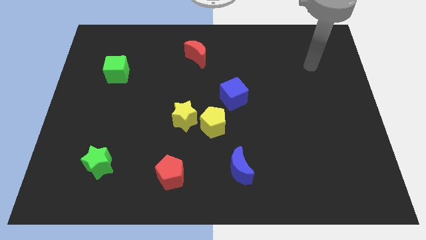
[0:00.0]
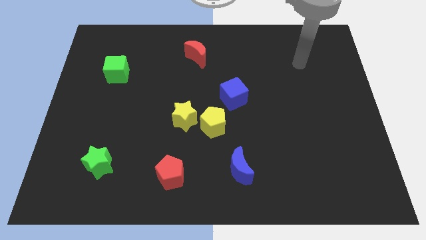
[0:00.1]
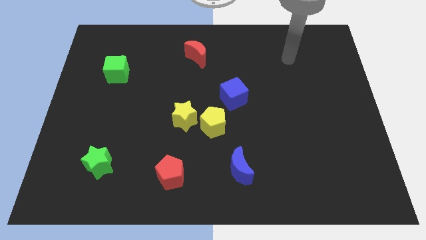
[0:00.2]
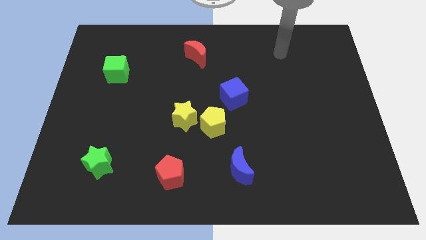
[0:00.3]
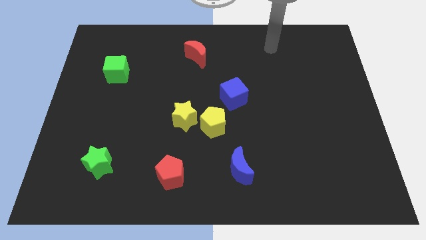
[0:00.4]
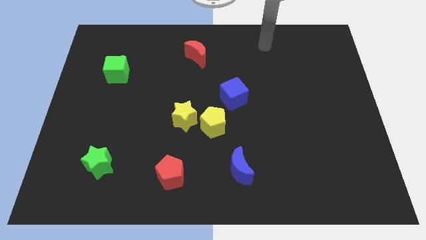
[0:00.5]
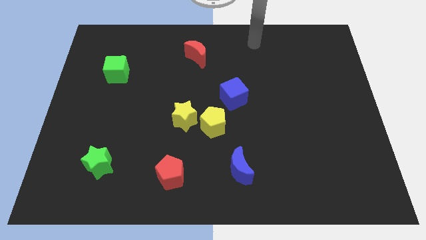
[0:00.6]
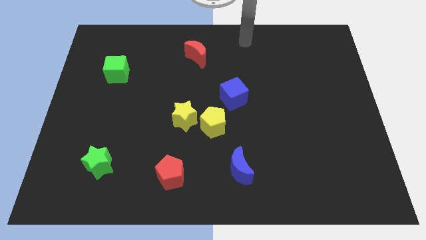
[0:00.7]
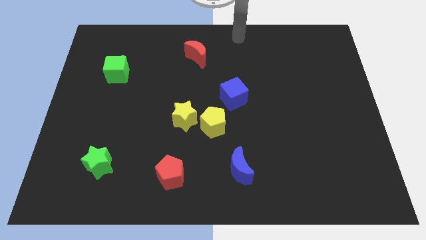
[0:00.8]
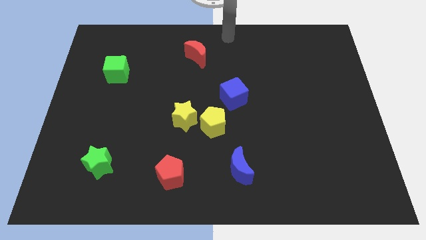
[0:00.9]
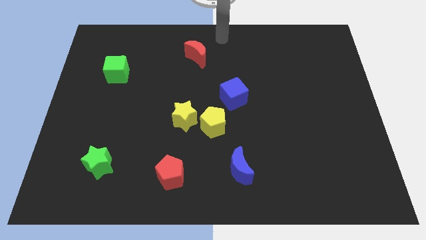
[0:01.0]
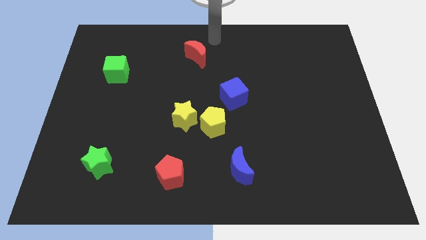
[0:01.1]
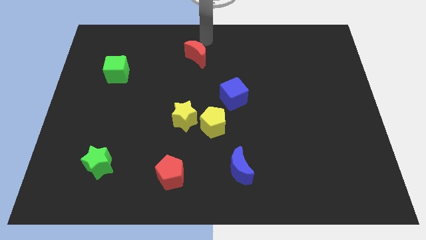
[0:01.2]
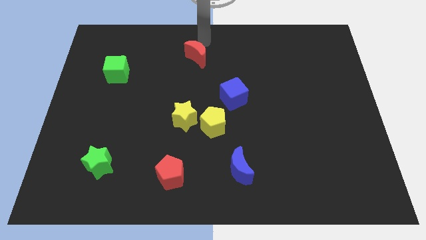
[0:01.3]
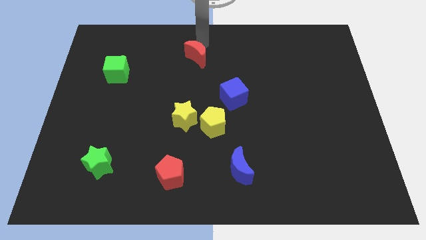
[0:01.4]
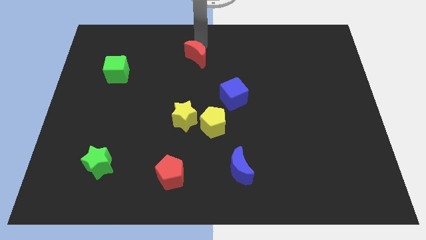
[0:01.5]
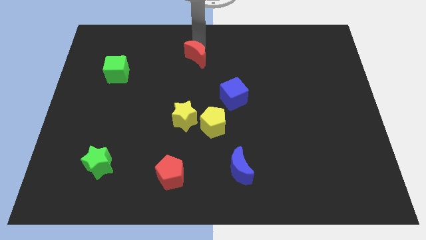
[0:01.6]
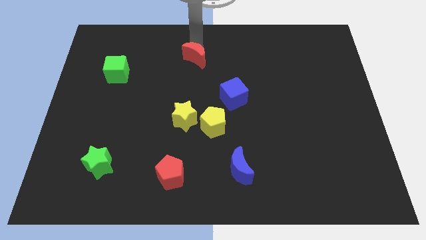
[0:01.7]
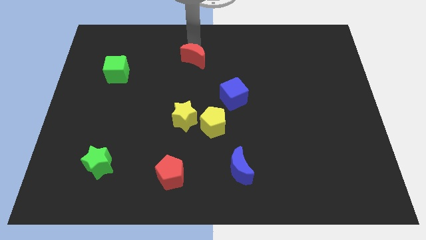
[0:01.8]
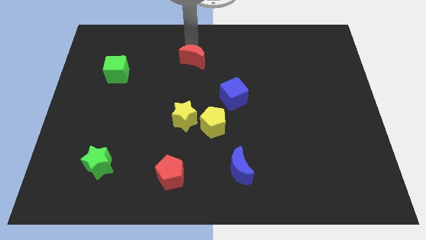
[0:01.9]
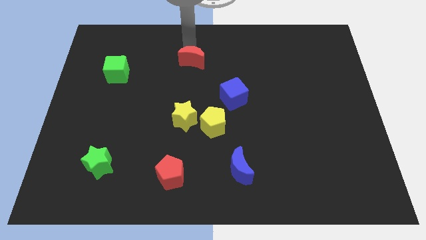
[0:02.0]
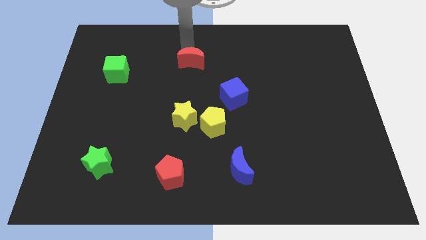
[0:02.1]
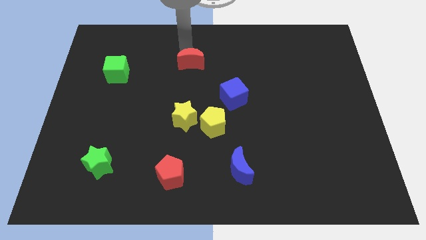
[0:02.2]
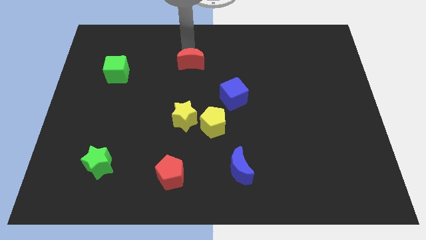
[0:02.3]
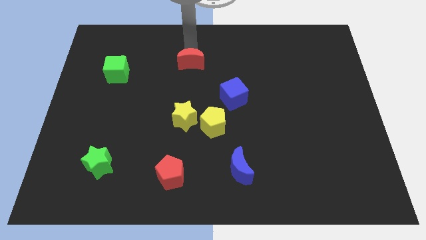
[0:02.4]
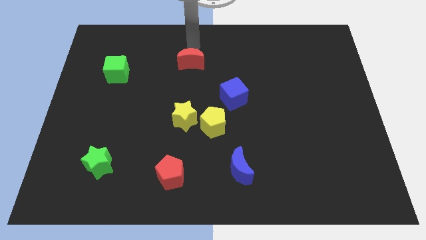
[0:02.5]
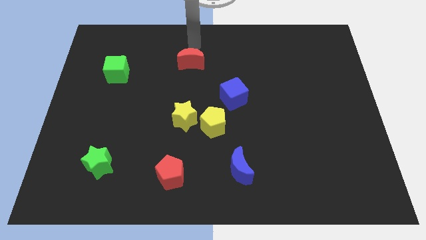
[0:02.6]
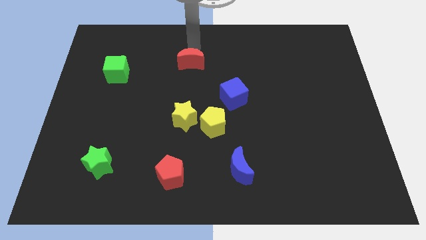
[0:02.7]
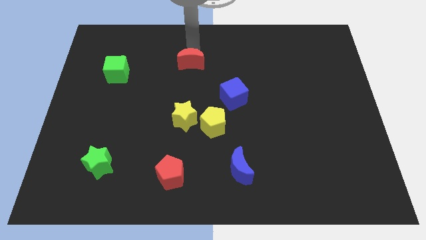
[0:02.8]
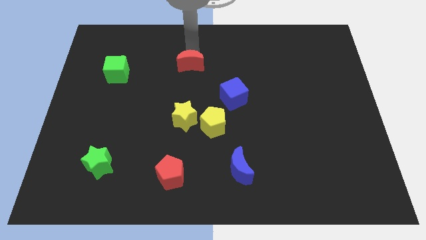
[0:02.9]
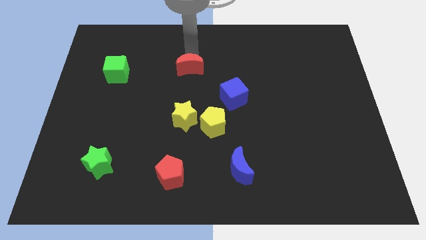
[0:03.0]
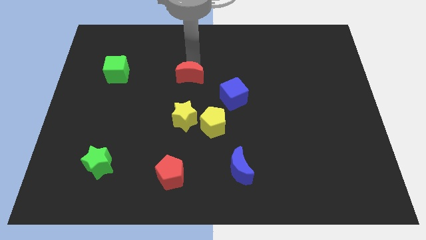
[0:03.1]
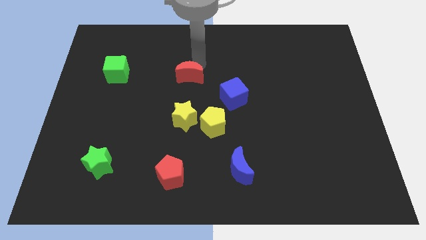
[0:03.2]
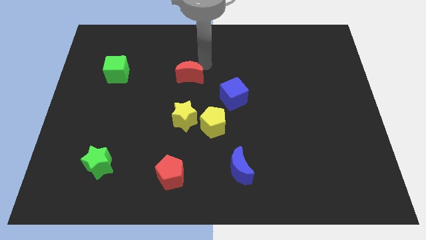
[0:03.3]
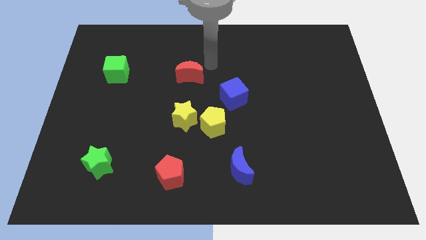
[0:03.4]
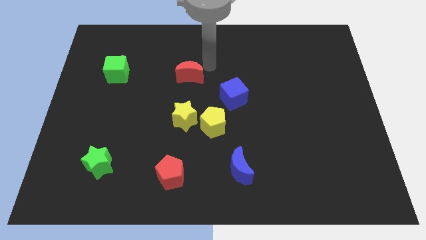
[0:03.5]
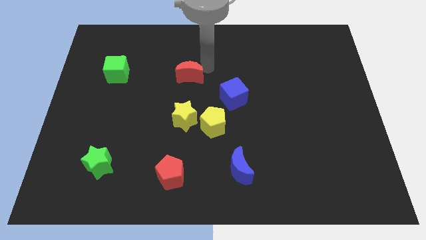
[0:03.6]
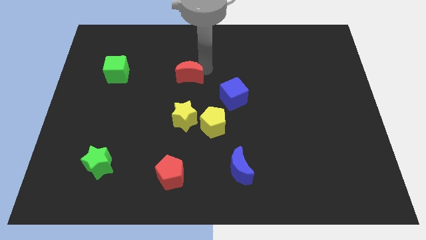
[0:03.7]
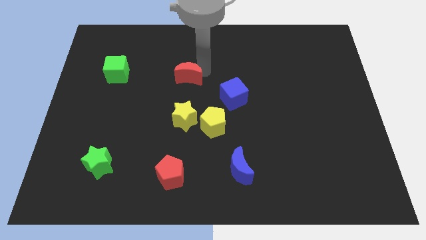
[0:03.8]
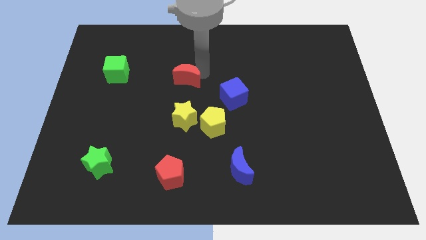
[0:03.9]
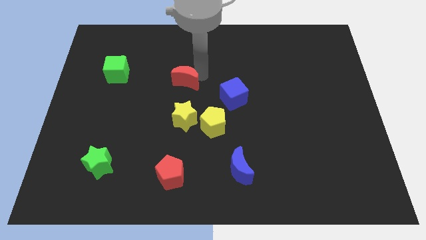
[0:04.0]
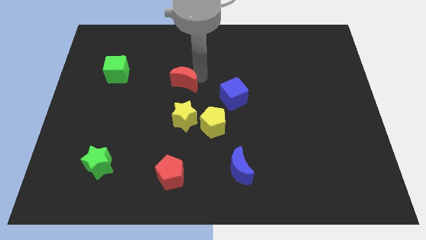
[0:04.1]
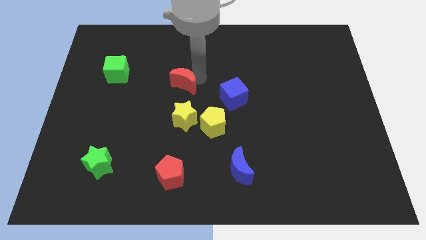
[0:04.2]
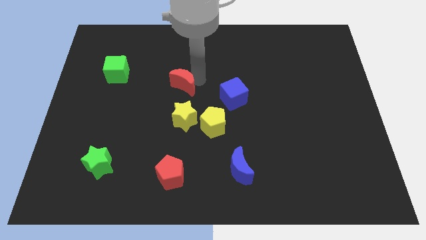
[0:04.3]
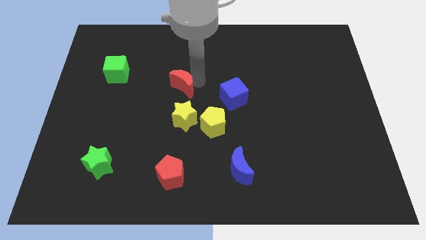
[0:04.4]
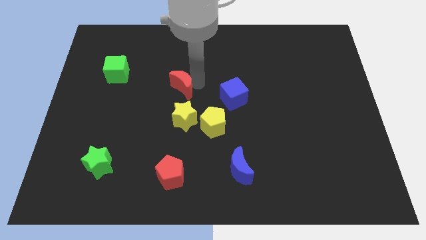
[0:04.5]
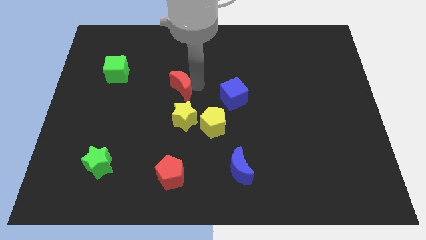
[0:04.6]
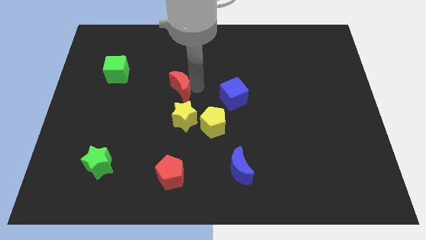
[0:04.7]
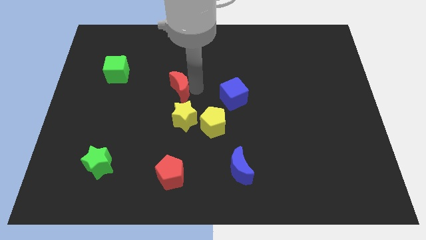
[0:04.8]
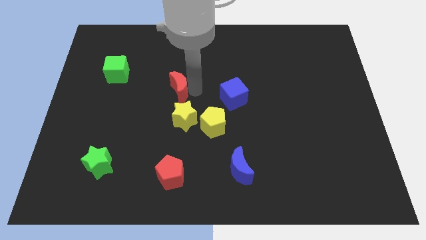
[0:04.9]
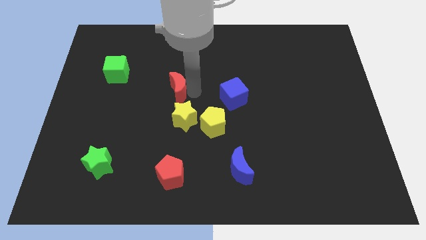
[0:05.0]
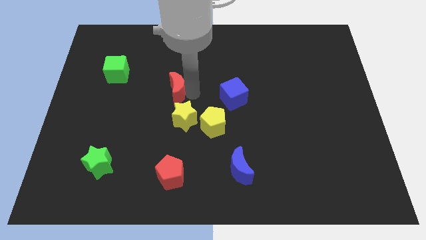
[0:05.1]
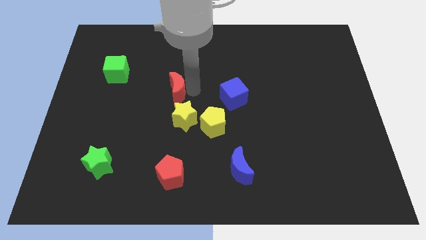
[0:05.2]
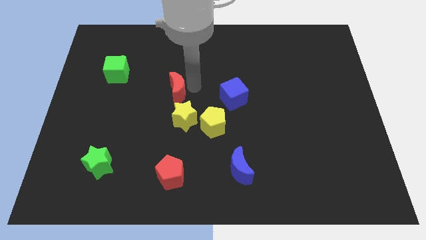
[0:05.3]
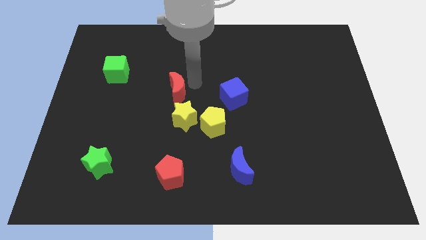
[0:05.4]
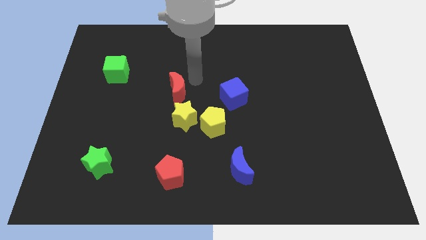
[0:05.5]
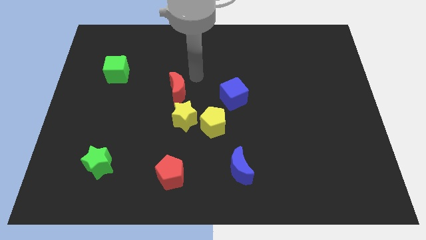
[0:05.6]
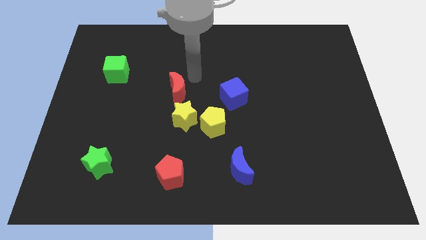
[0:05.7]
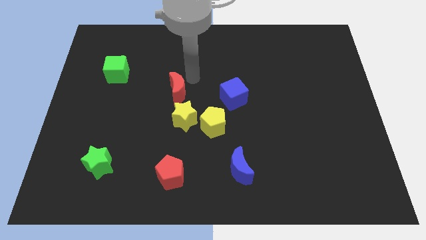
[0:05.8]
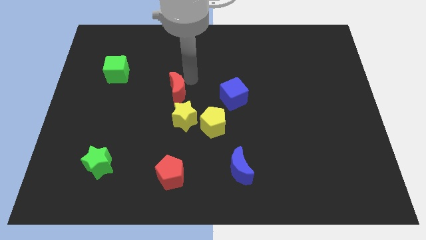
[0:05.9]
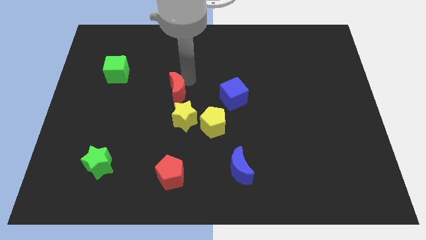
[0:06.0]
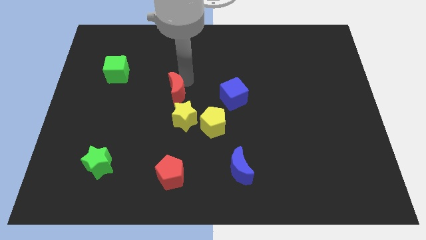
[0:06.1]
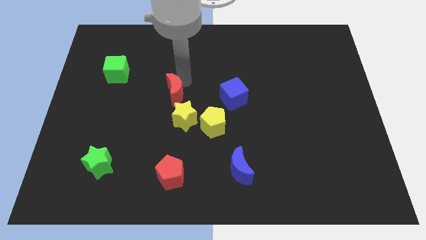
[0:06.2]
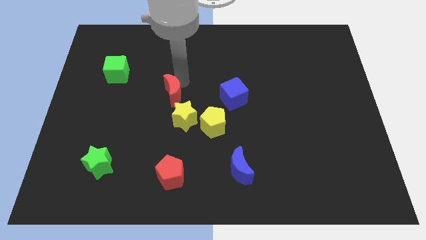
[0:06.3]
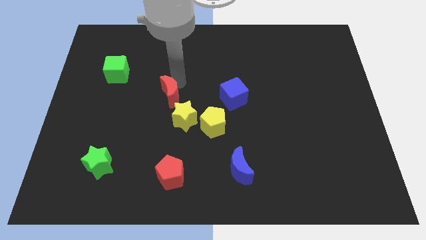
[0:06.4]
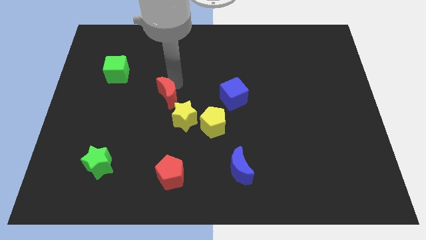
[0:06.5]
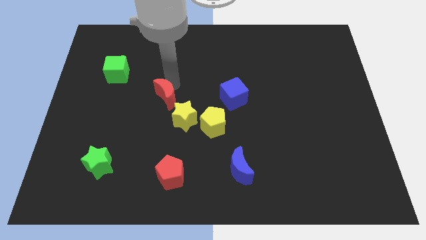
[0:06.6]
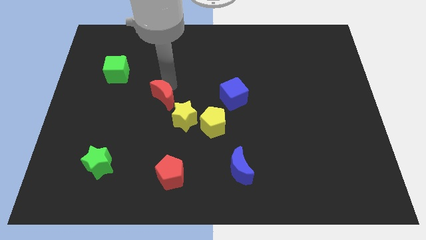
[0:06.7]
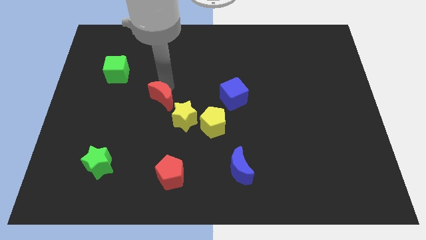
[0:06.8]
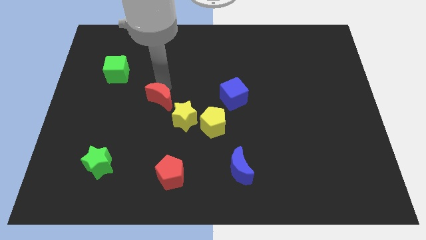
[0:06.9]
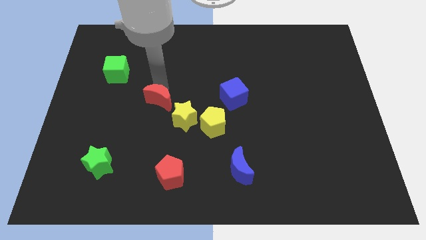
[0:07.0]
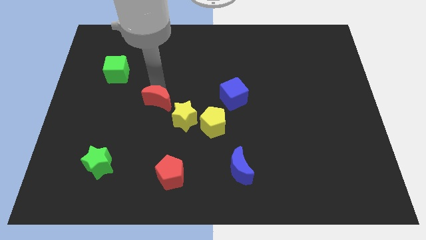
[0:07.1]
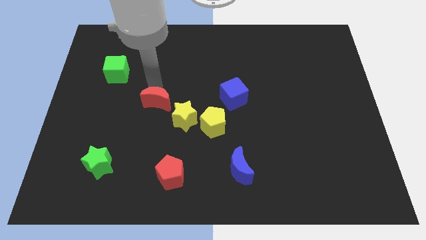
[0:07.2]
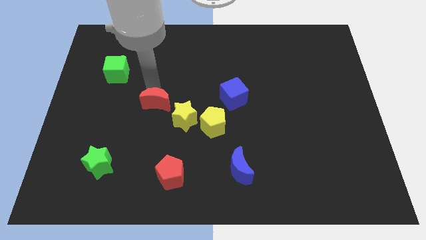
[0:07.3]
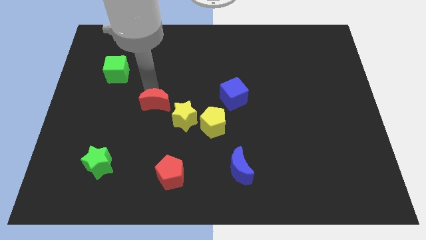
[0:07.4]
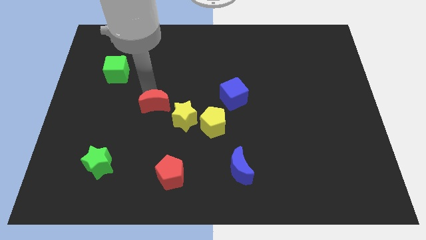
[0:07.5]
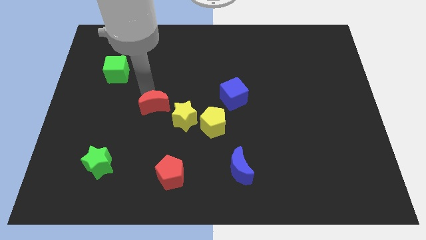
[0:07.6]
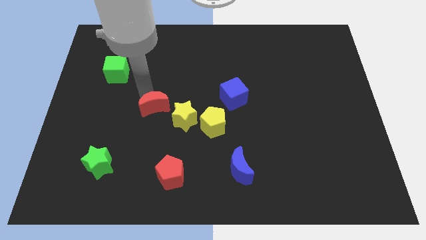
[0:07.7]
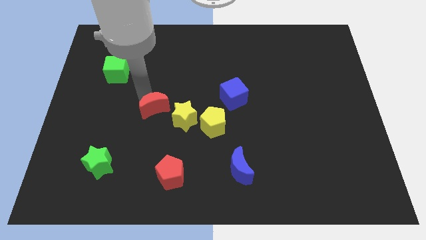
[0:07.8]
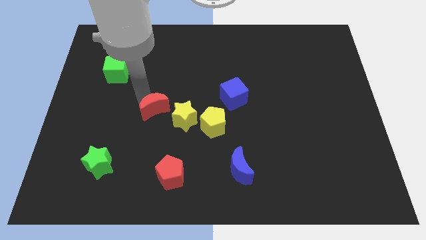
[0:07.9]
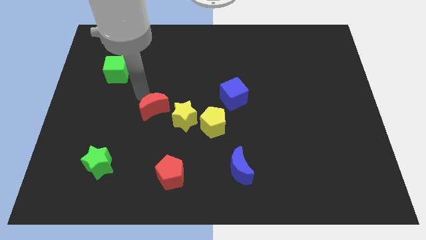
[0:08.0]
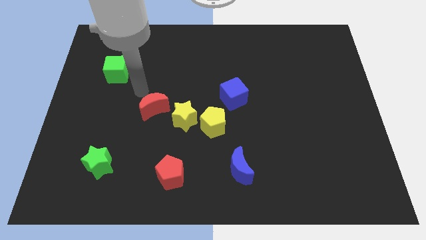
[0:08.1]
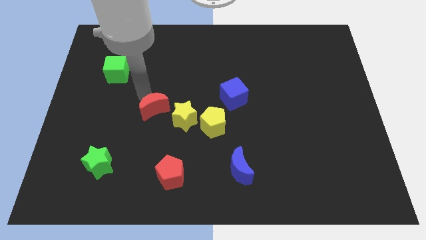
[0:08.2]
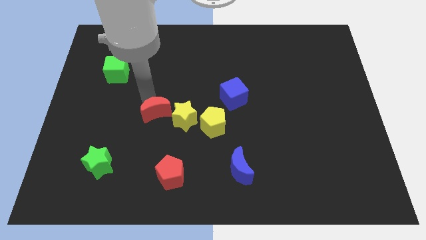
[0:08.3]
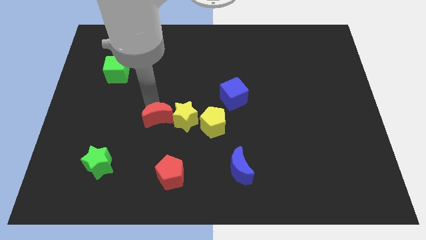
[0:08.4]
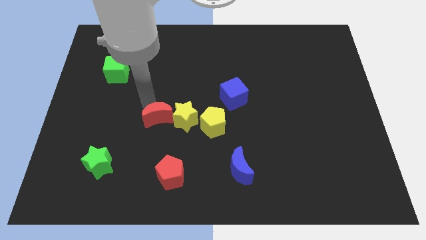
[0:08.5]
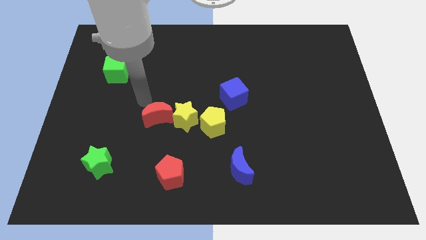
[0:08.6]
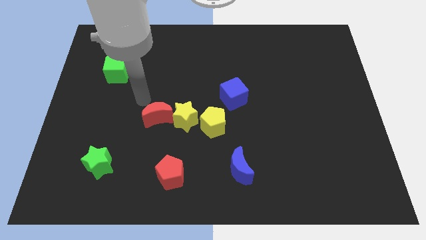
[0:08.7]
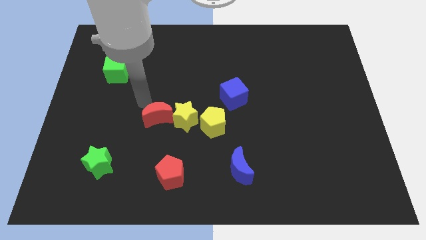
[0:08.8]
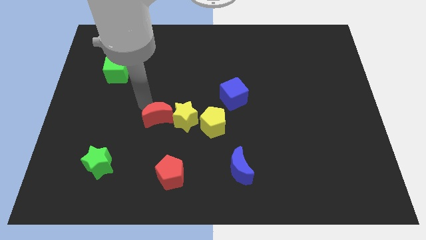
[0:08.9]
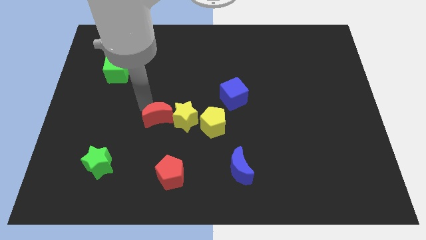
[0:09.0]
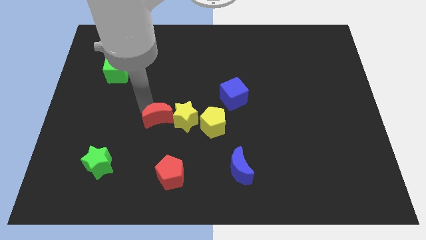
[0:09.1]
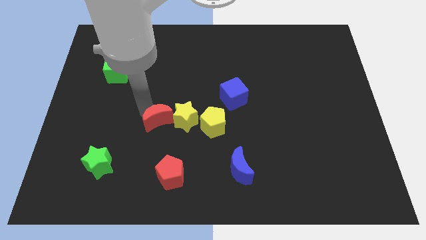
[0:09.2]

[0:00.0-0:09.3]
push the red moon to the top of the red pentagon
